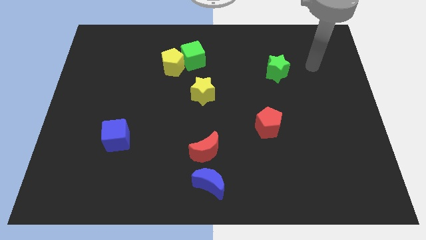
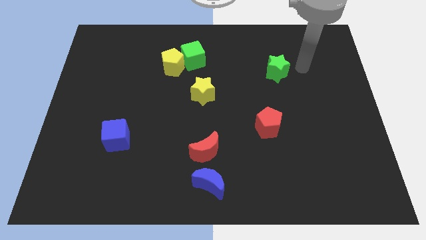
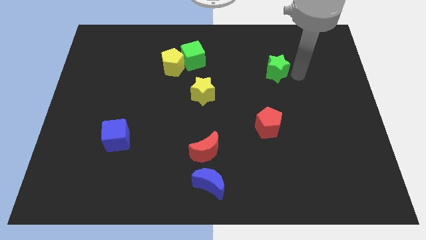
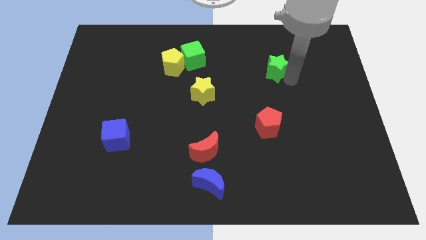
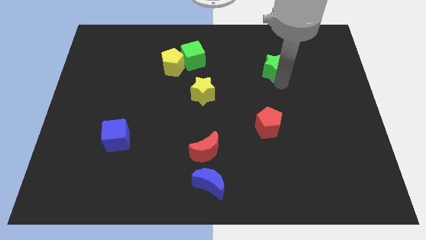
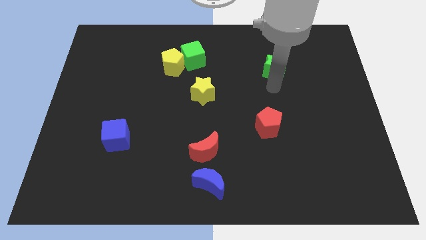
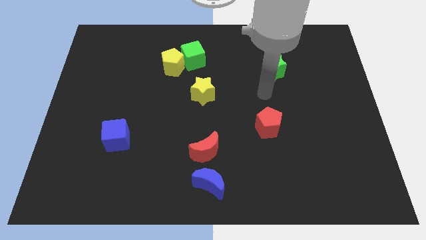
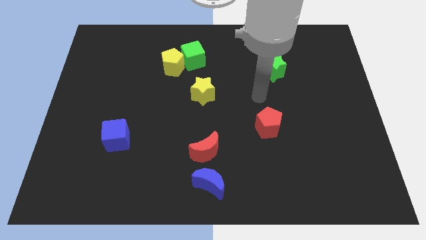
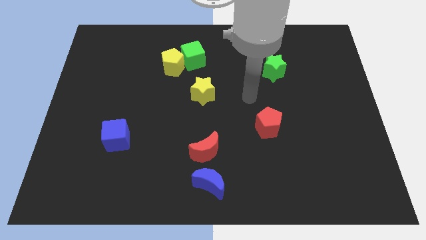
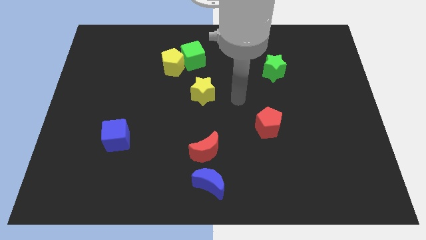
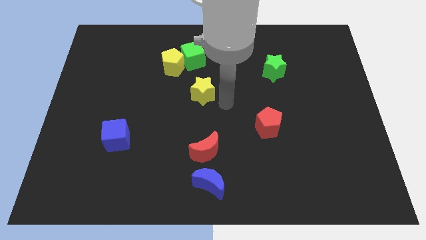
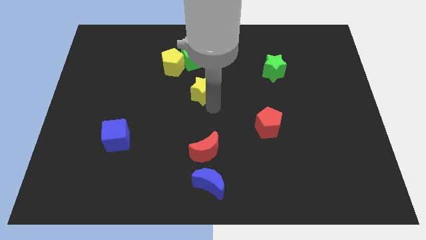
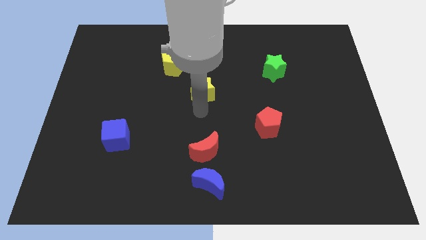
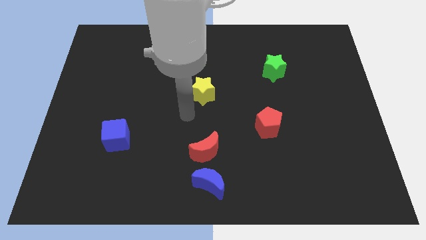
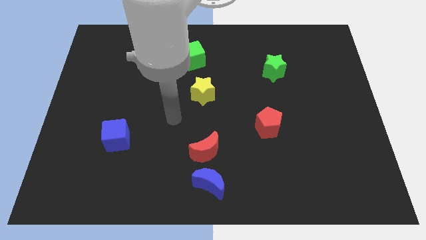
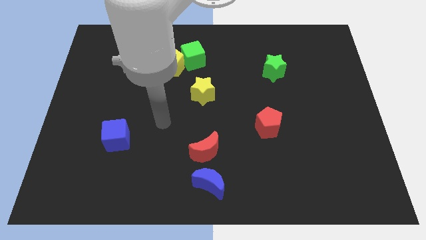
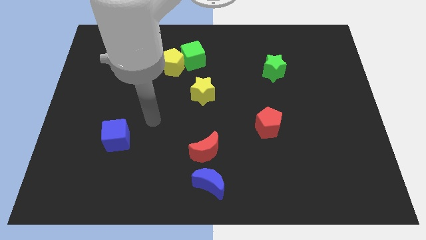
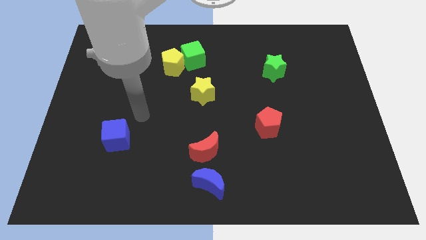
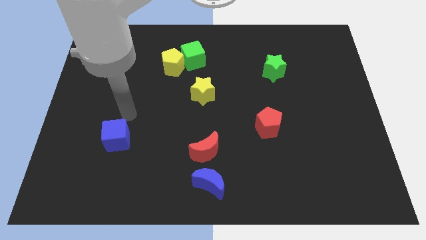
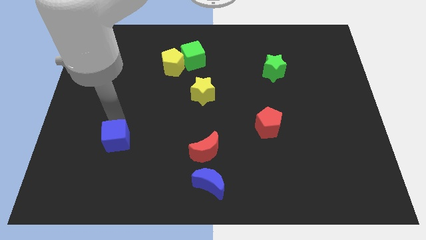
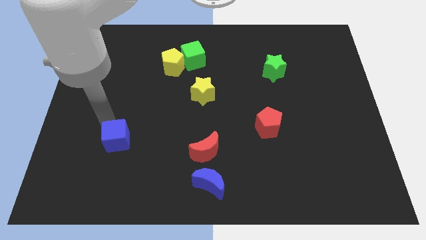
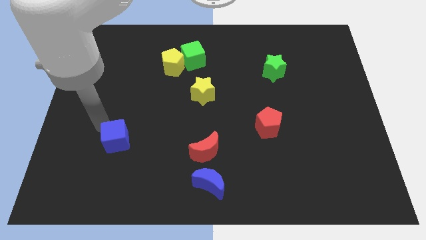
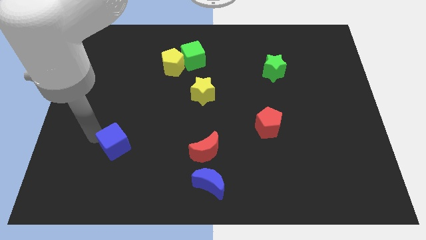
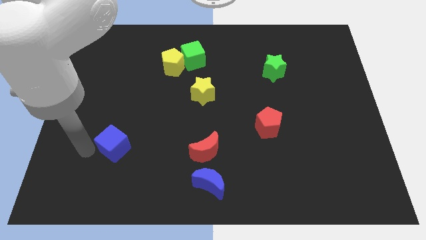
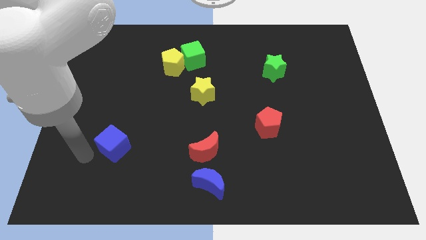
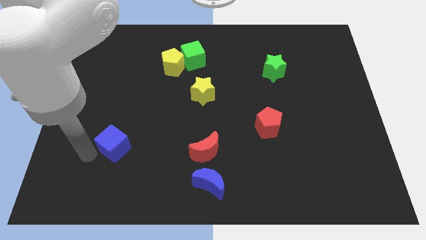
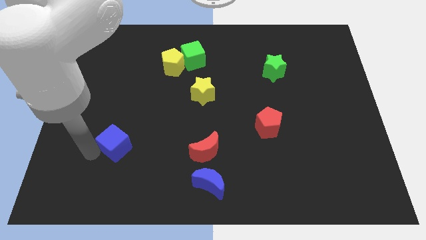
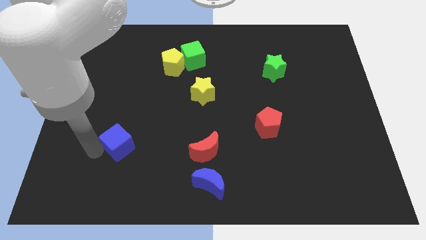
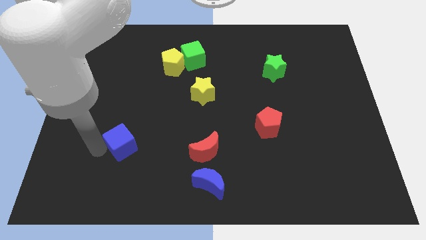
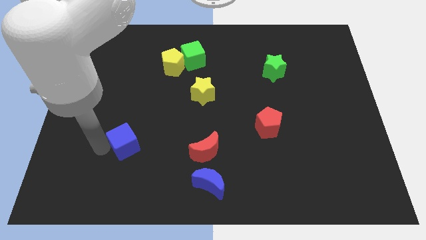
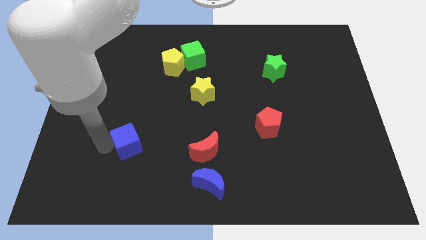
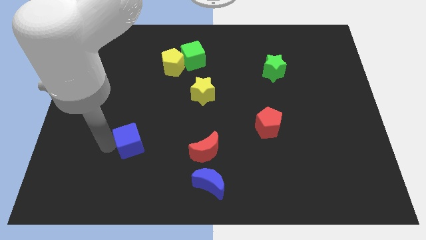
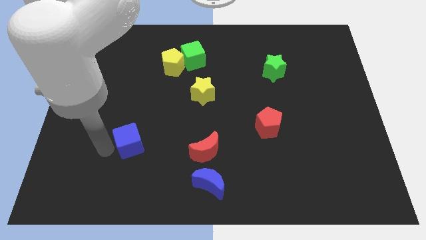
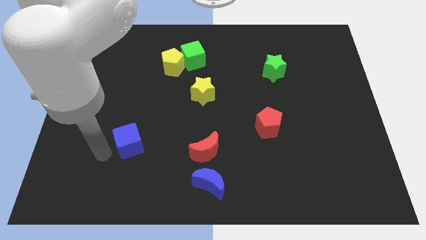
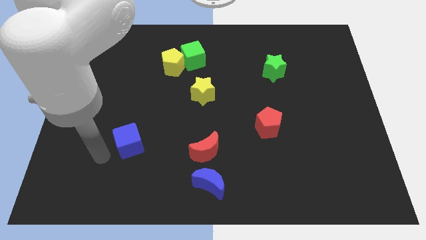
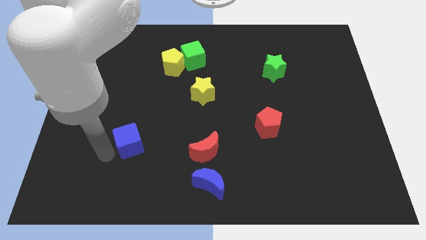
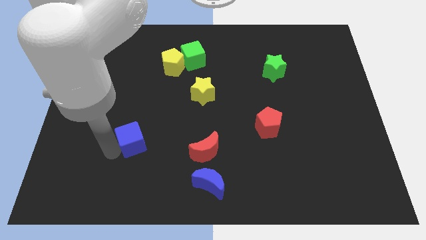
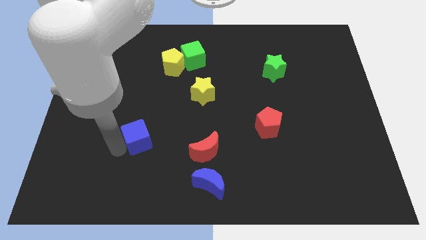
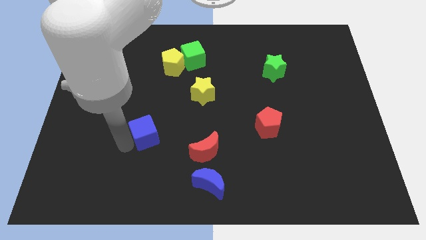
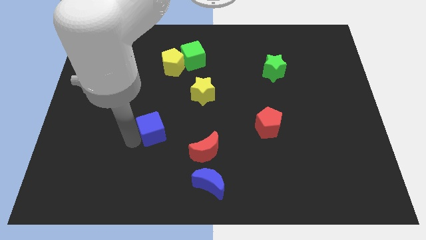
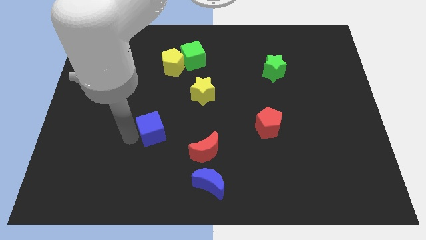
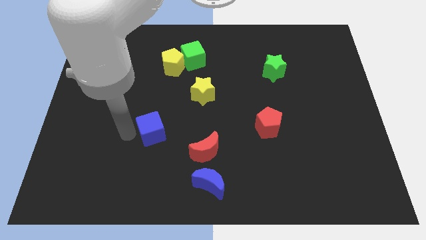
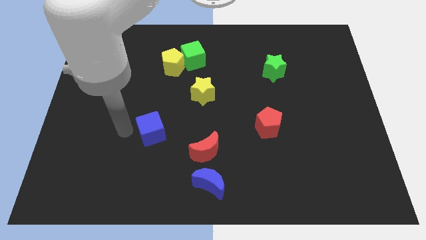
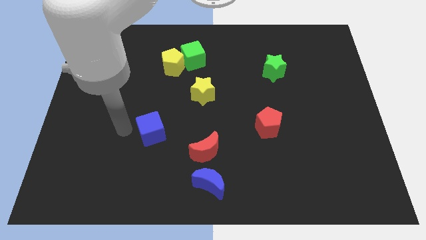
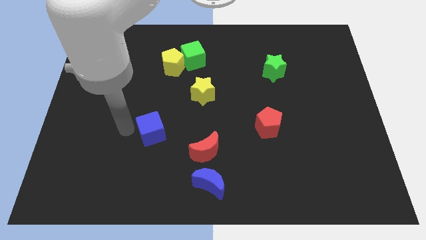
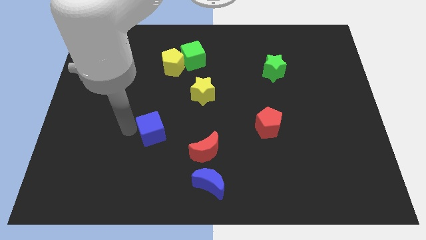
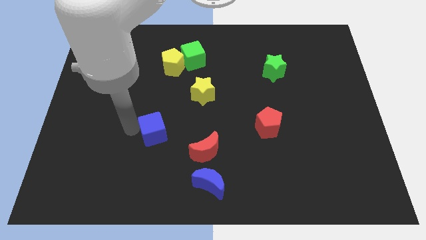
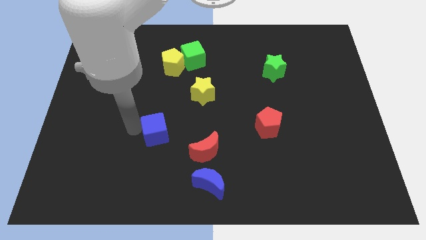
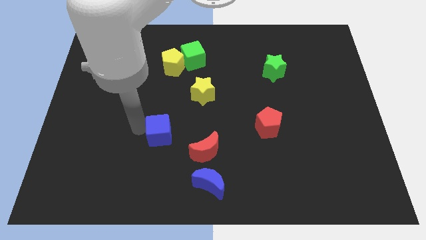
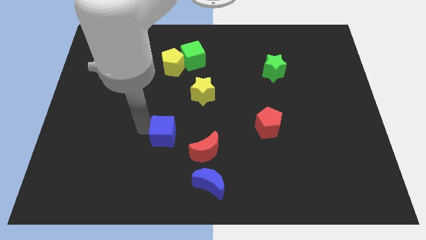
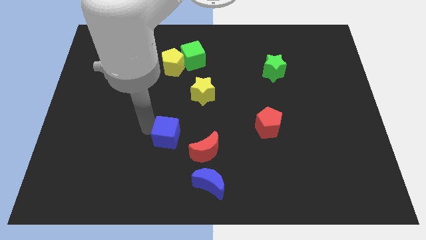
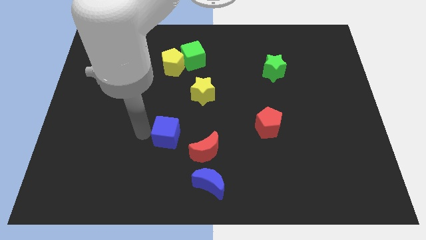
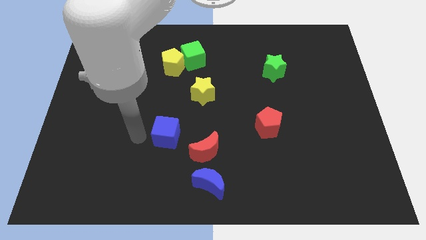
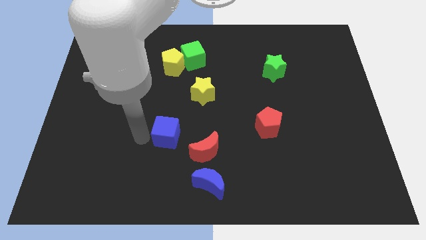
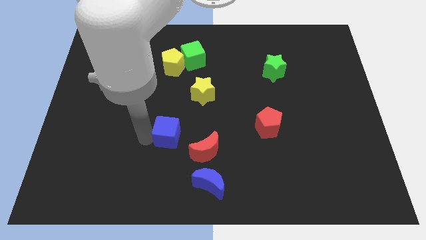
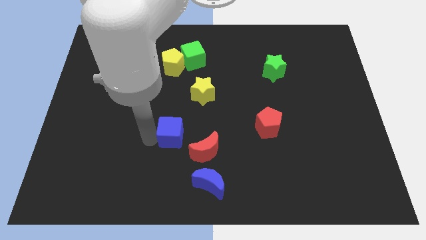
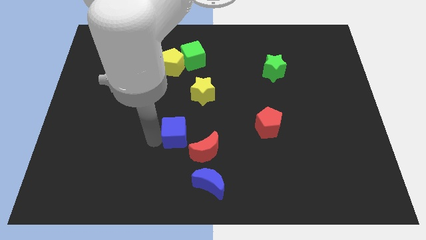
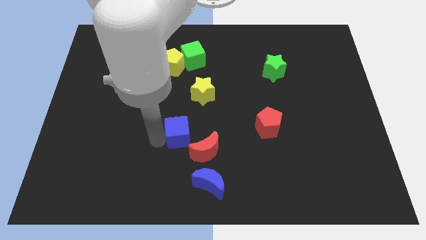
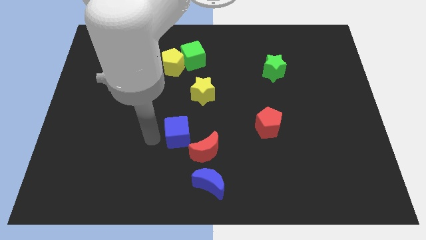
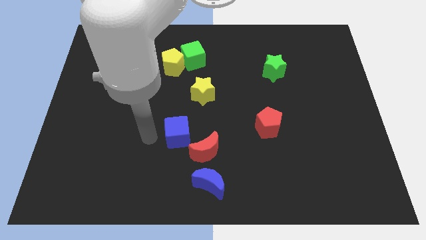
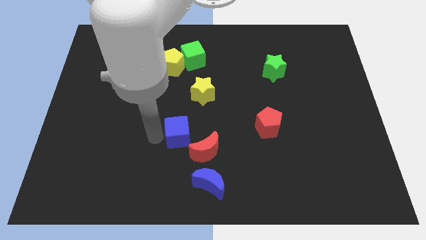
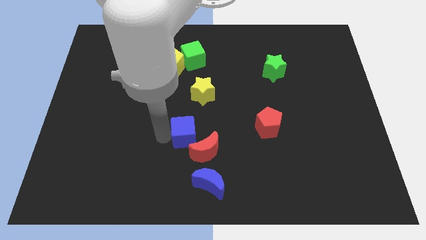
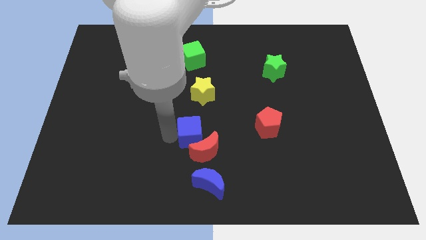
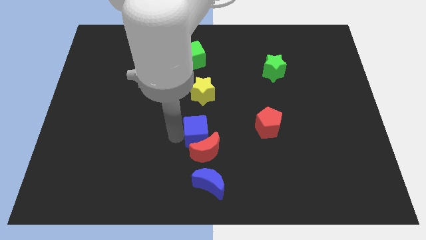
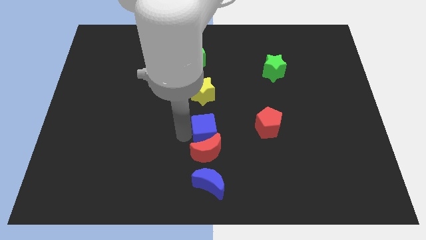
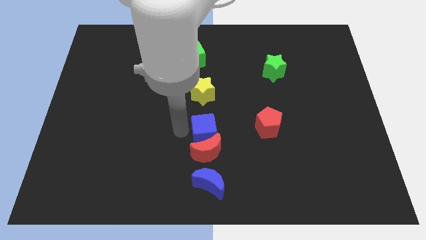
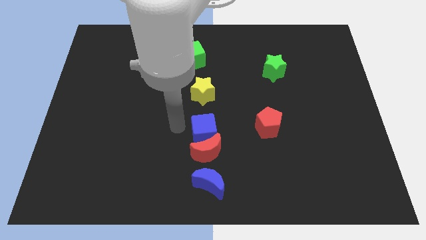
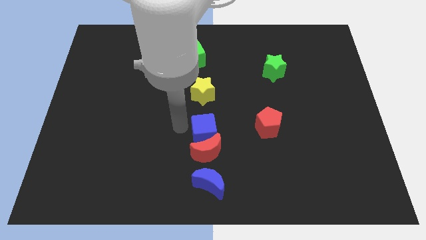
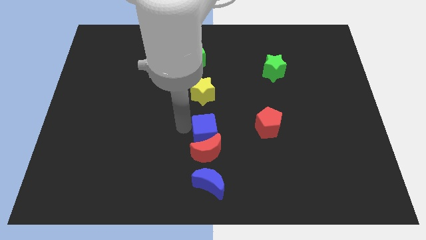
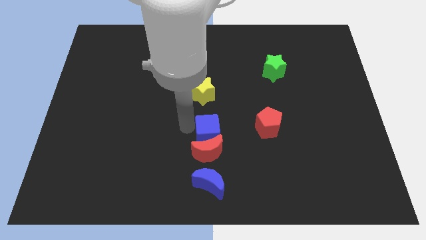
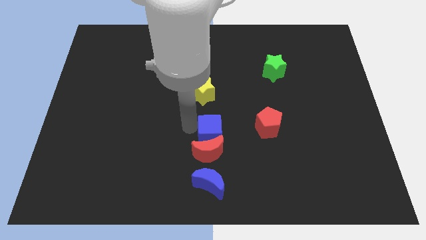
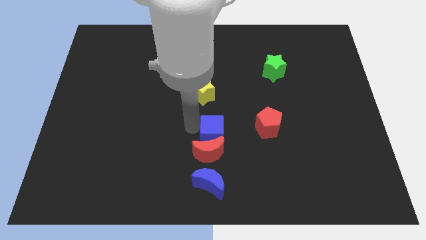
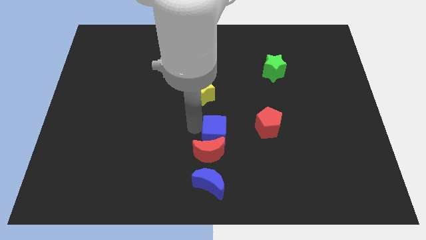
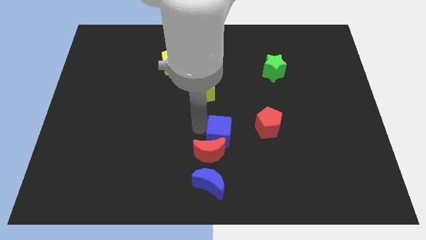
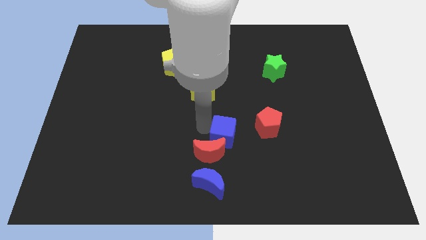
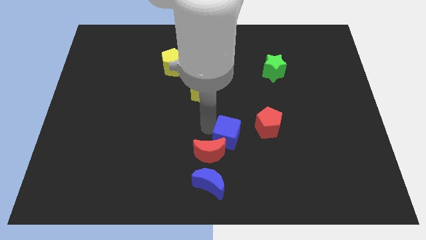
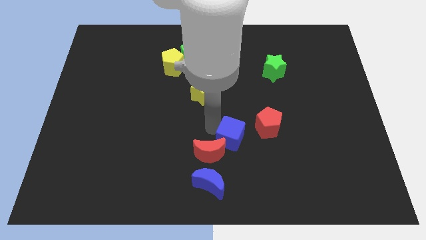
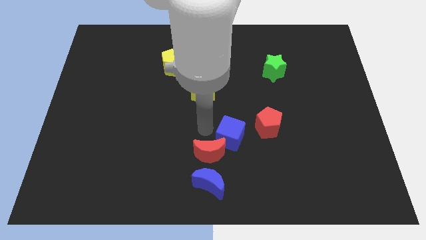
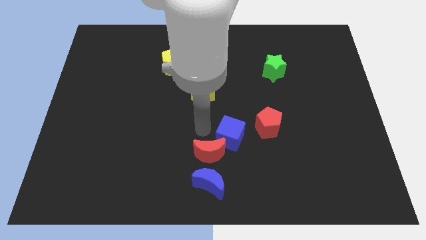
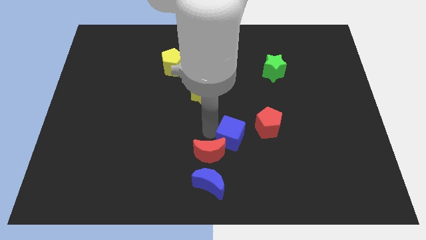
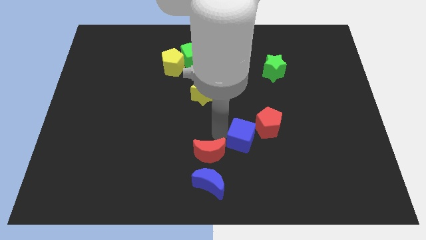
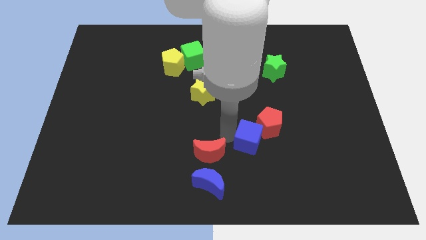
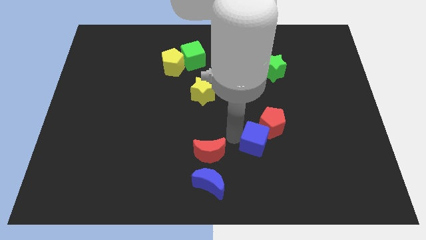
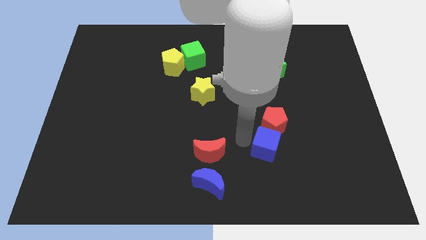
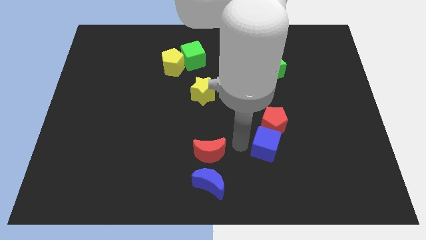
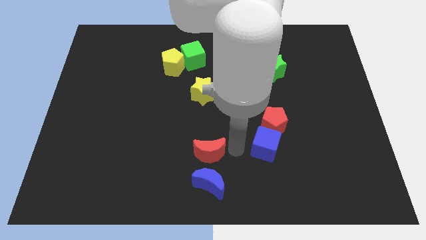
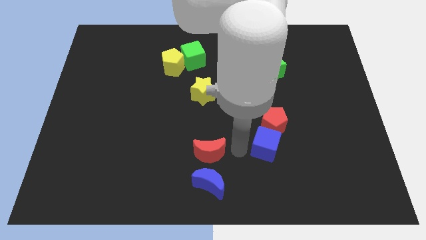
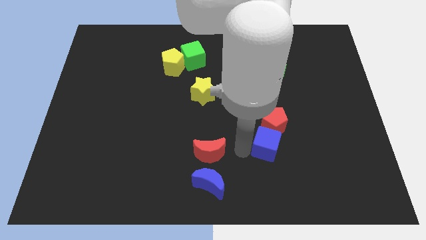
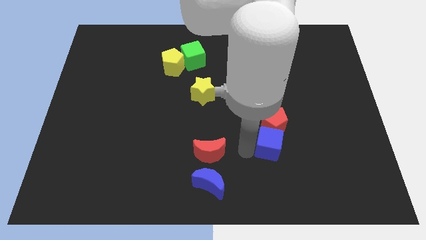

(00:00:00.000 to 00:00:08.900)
slide the blue cube to the bottom right side of the red pentagon
